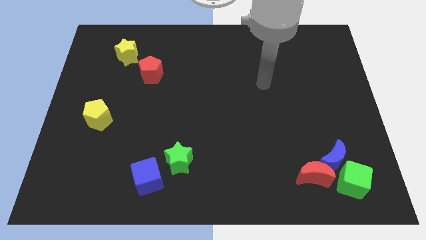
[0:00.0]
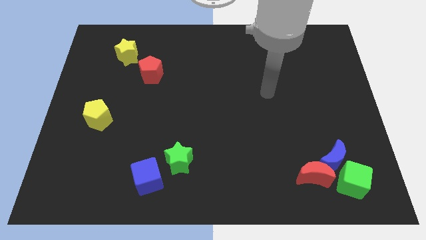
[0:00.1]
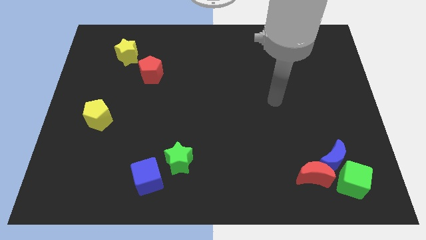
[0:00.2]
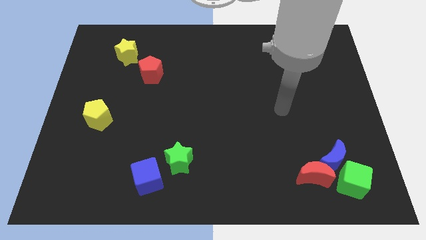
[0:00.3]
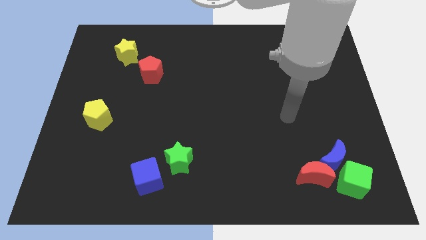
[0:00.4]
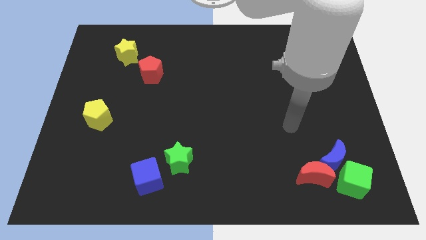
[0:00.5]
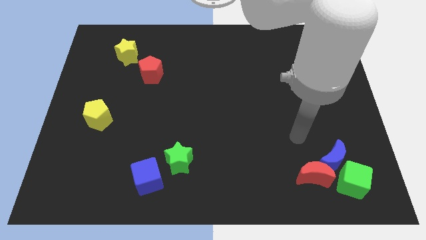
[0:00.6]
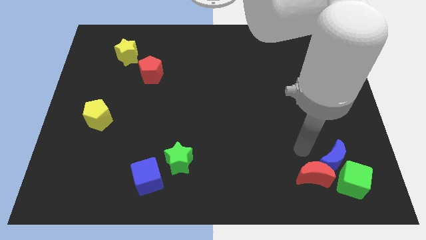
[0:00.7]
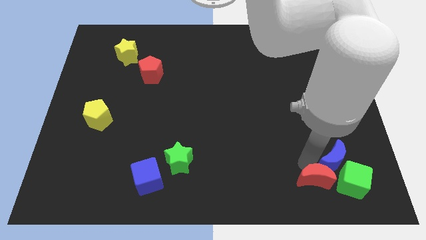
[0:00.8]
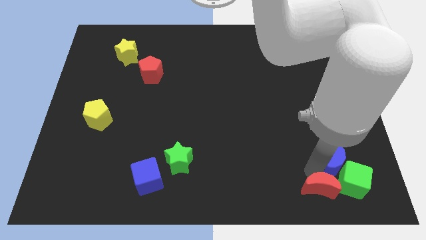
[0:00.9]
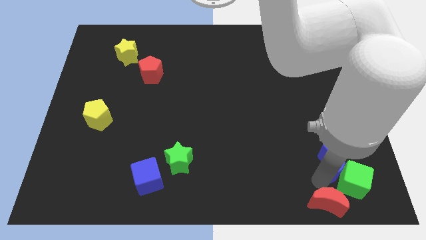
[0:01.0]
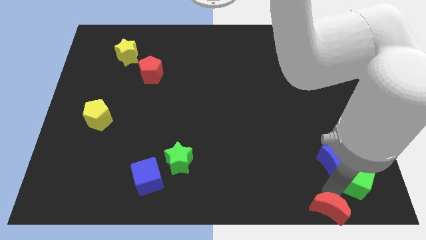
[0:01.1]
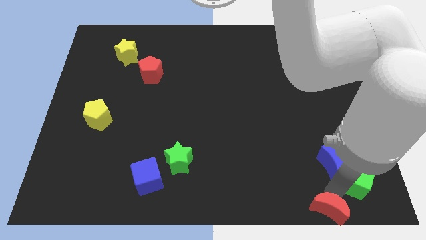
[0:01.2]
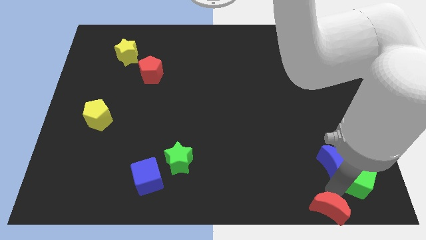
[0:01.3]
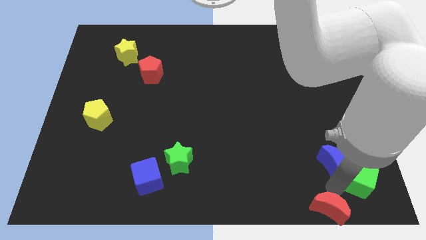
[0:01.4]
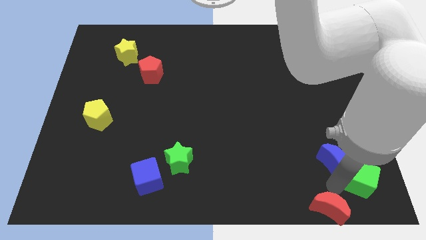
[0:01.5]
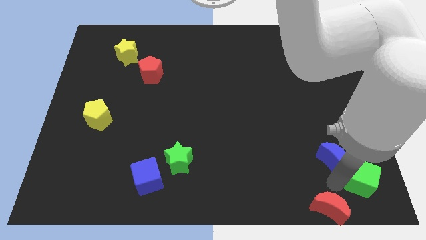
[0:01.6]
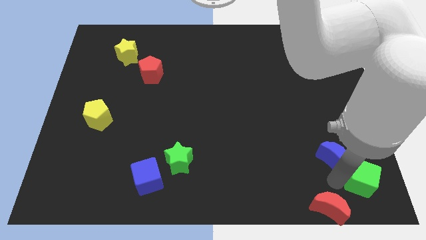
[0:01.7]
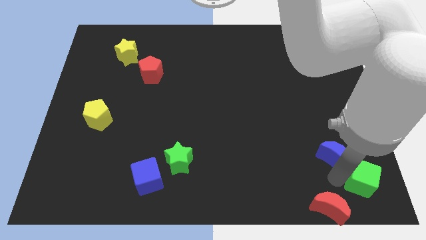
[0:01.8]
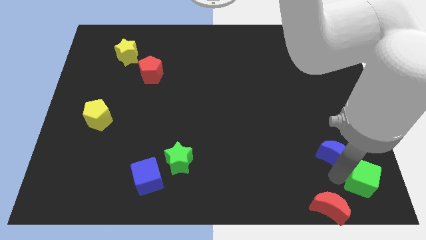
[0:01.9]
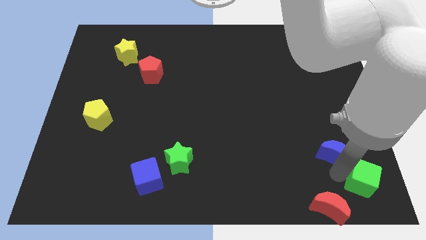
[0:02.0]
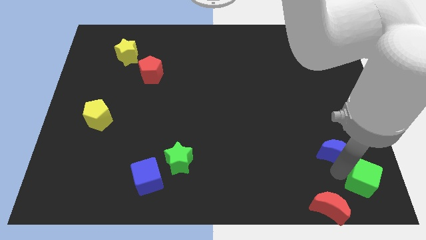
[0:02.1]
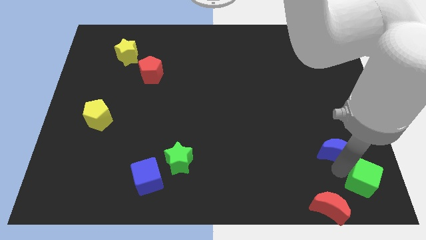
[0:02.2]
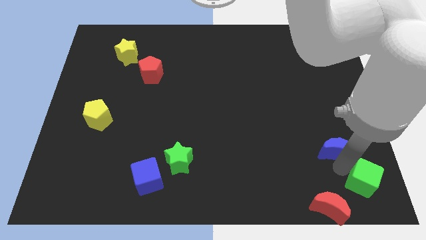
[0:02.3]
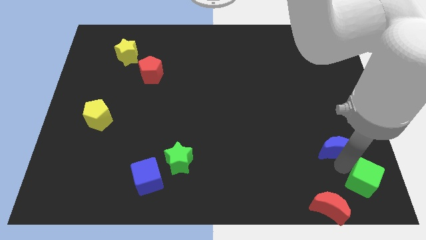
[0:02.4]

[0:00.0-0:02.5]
separate the blue moon from the red moon and green cube

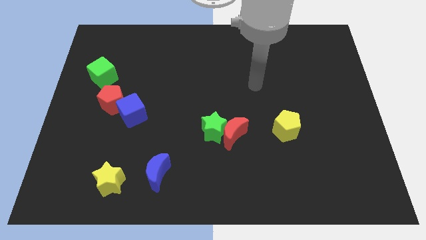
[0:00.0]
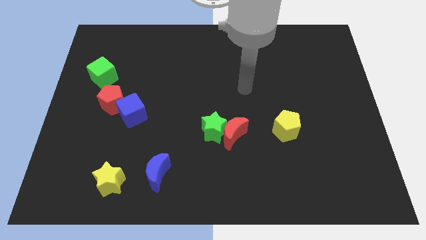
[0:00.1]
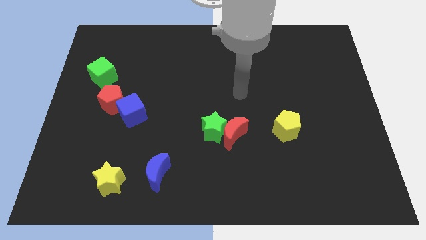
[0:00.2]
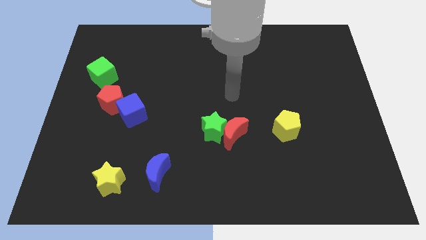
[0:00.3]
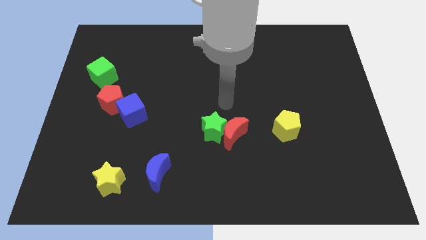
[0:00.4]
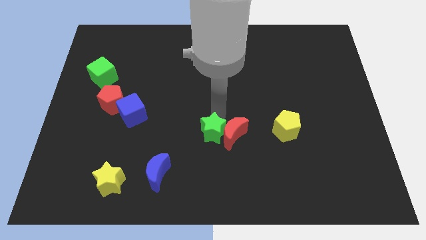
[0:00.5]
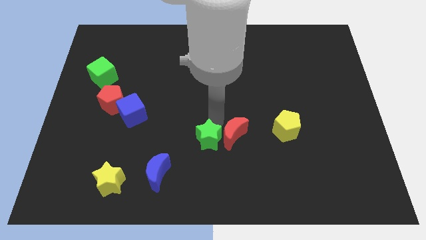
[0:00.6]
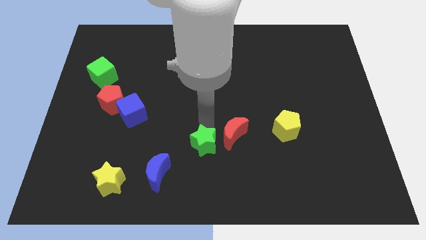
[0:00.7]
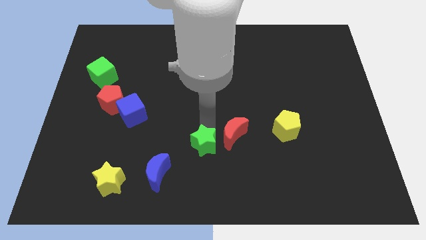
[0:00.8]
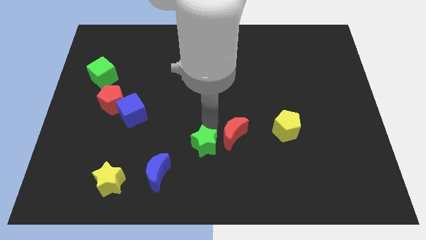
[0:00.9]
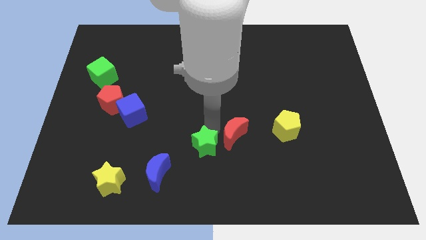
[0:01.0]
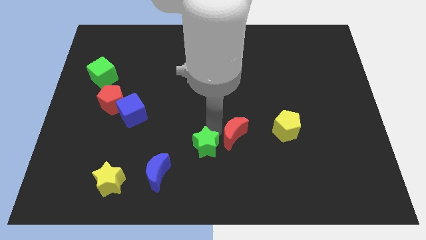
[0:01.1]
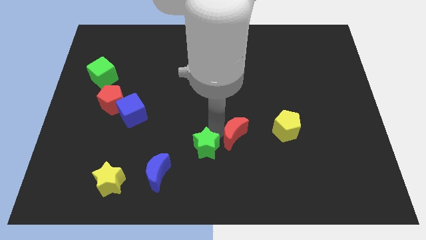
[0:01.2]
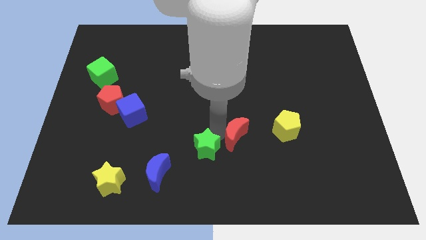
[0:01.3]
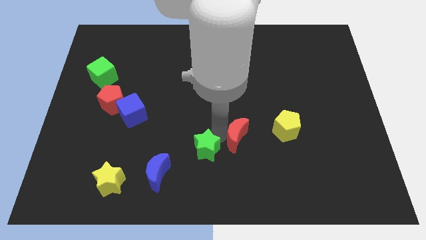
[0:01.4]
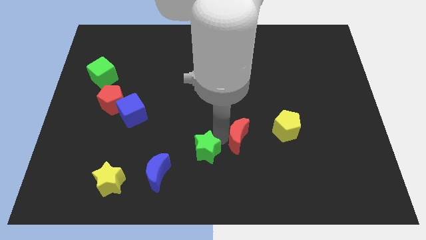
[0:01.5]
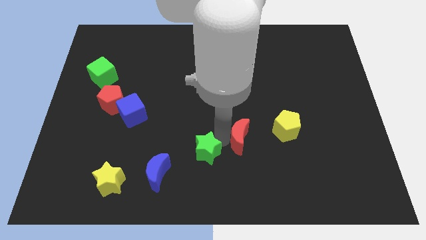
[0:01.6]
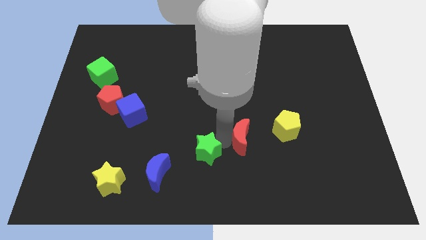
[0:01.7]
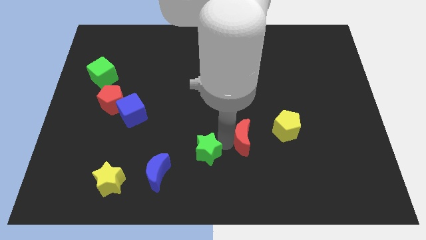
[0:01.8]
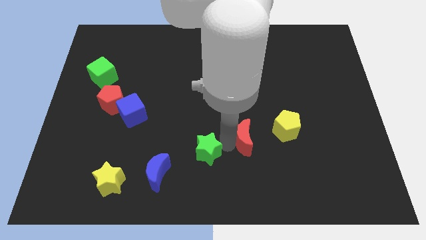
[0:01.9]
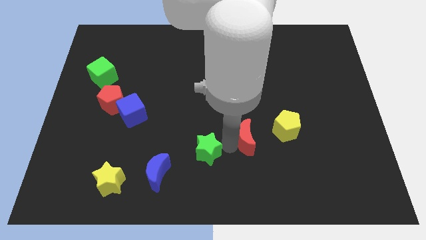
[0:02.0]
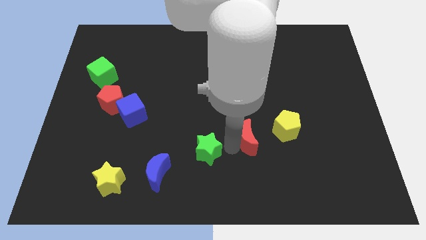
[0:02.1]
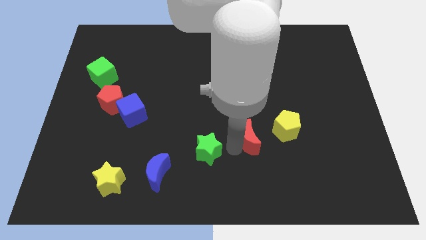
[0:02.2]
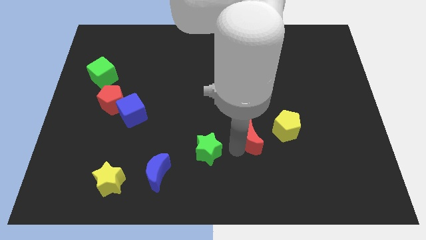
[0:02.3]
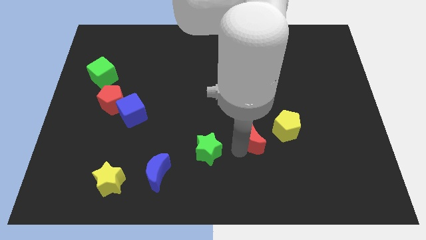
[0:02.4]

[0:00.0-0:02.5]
pull the red moon apart from the green star

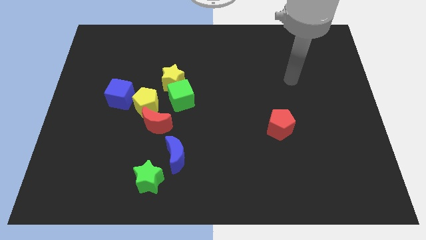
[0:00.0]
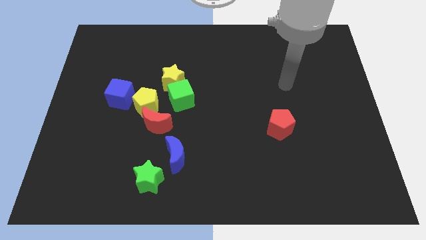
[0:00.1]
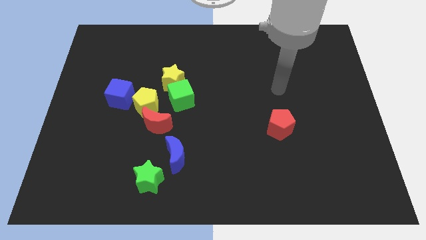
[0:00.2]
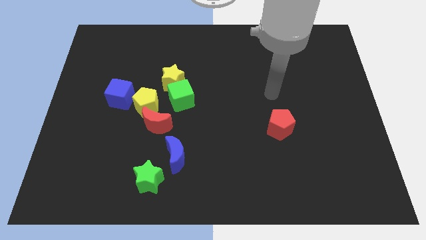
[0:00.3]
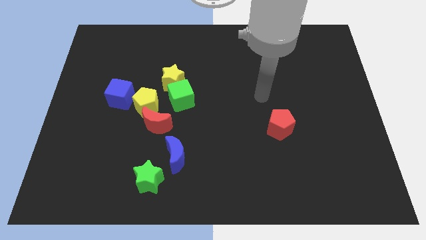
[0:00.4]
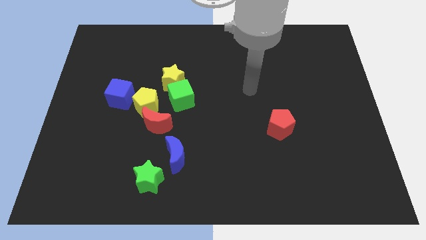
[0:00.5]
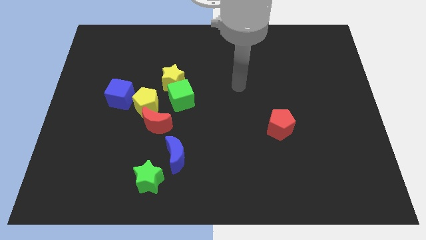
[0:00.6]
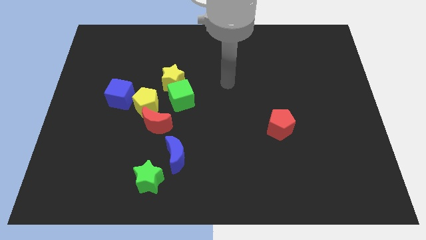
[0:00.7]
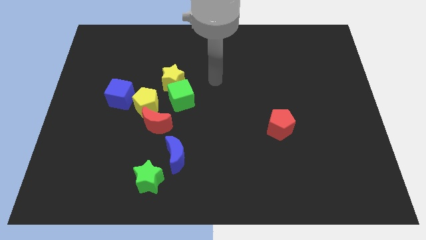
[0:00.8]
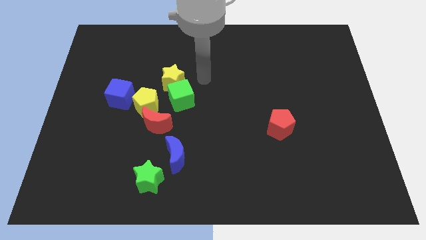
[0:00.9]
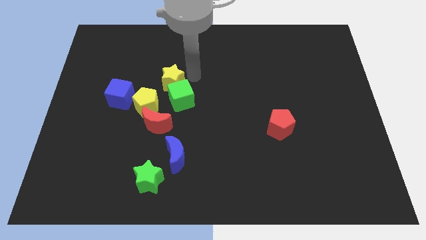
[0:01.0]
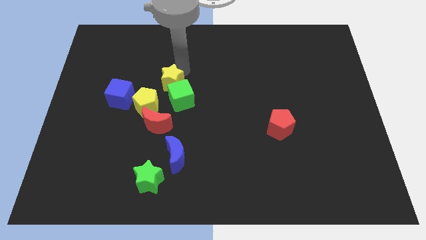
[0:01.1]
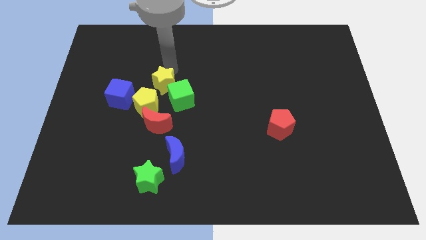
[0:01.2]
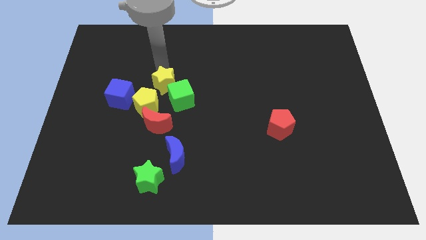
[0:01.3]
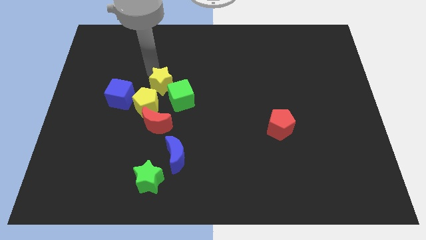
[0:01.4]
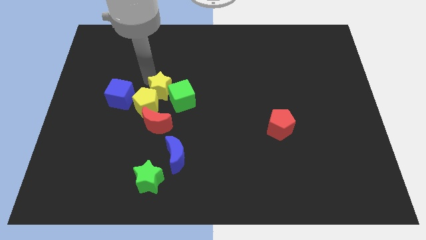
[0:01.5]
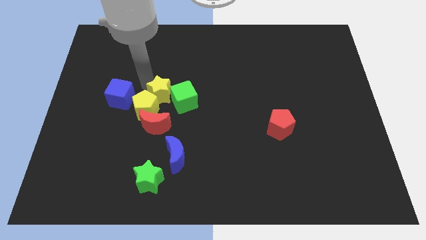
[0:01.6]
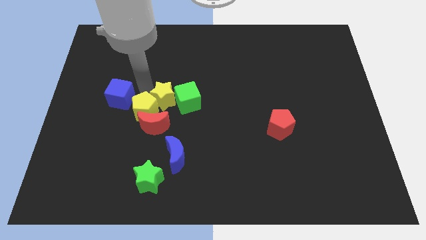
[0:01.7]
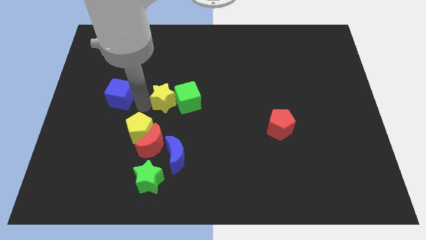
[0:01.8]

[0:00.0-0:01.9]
move the blue cube away from the yellow pentagon

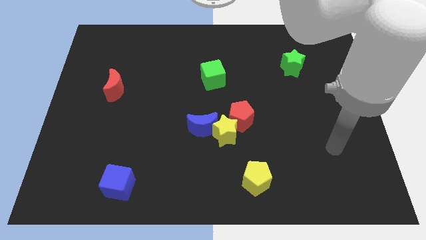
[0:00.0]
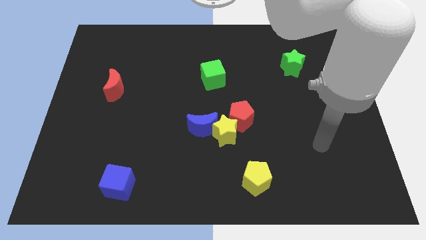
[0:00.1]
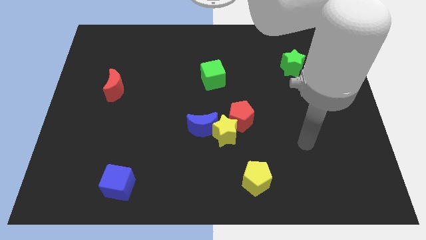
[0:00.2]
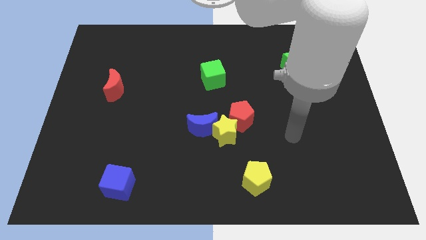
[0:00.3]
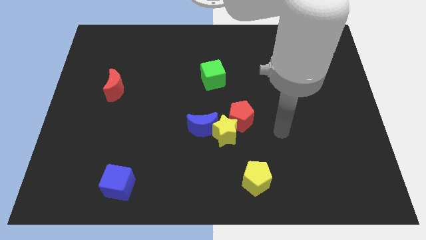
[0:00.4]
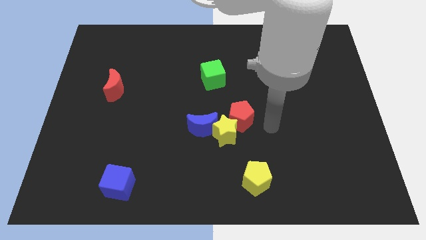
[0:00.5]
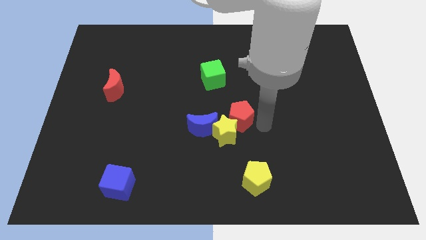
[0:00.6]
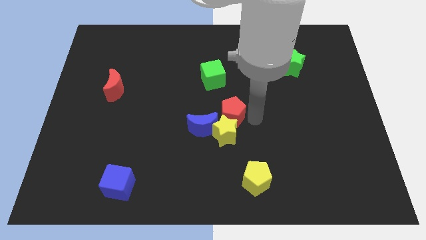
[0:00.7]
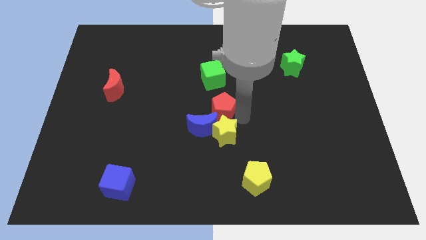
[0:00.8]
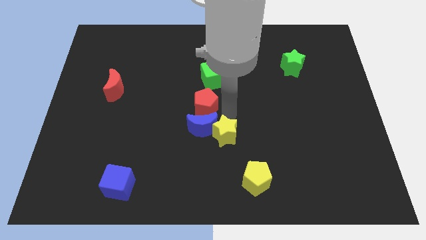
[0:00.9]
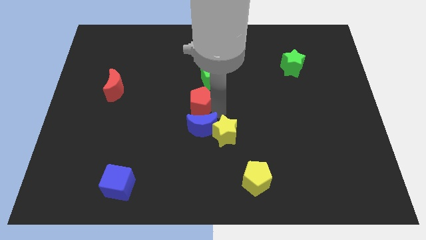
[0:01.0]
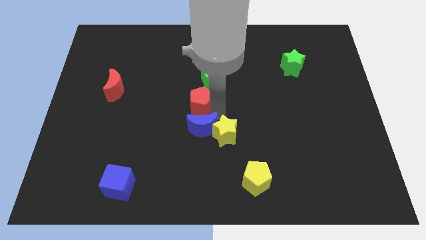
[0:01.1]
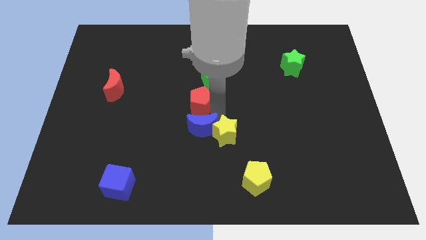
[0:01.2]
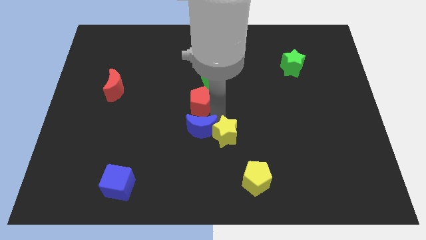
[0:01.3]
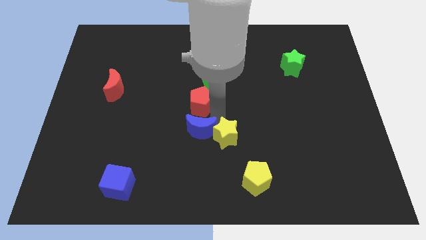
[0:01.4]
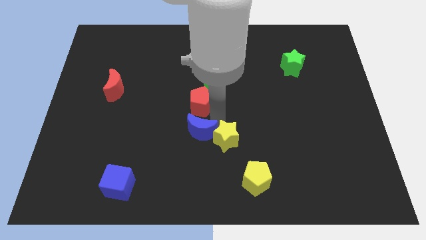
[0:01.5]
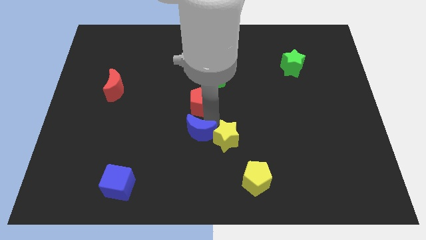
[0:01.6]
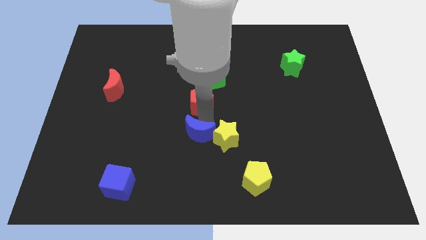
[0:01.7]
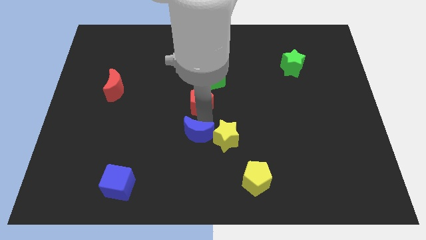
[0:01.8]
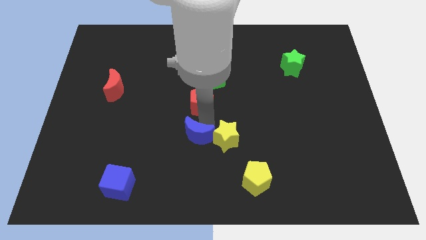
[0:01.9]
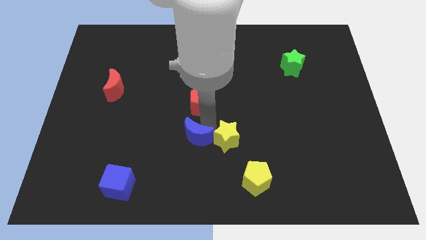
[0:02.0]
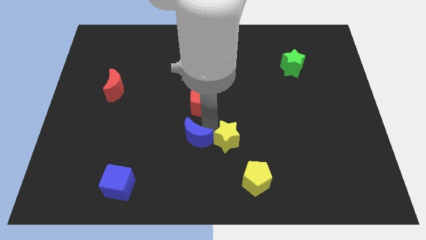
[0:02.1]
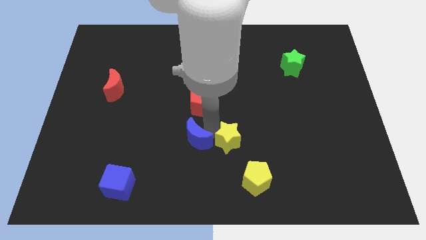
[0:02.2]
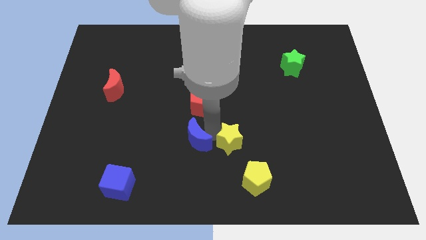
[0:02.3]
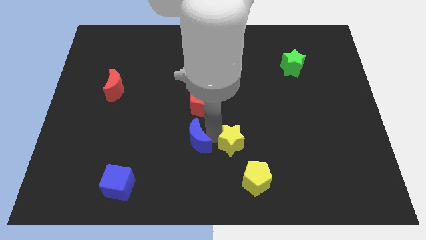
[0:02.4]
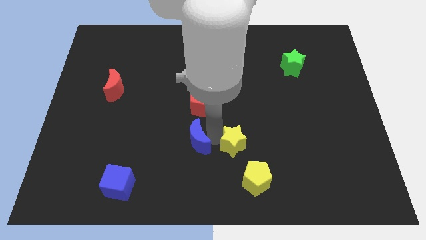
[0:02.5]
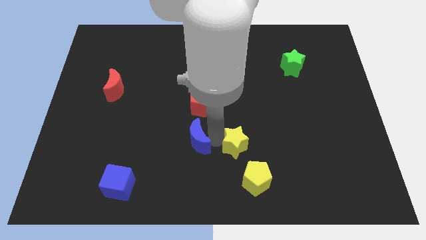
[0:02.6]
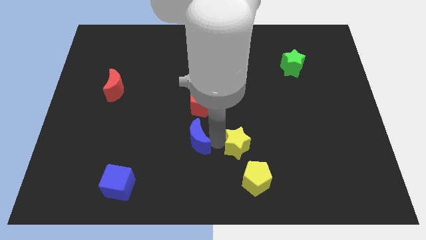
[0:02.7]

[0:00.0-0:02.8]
separate the yellow star from the blue moon and red pentagon
